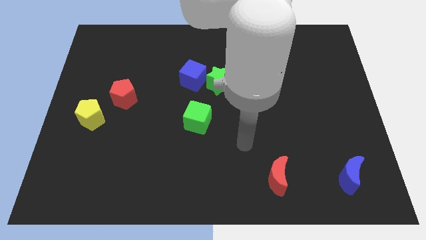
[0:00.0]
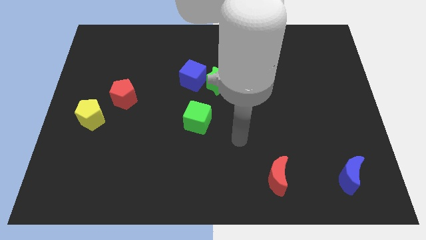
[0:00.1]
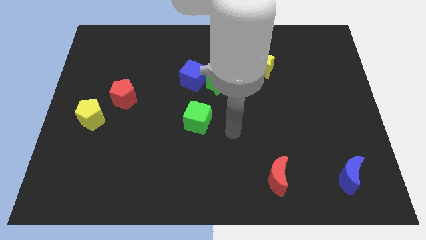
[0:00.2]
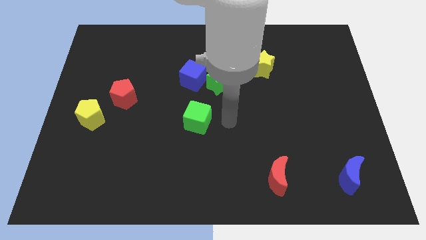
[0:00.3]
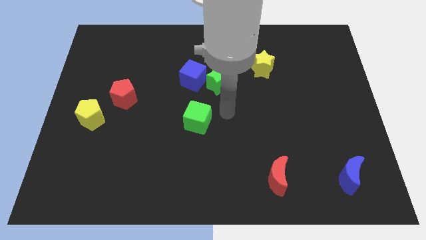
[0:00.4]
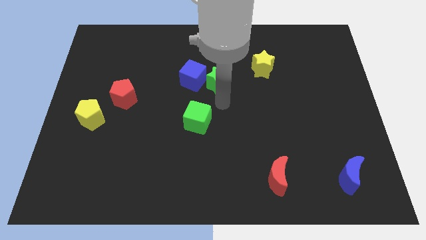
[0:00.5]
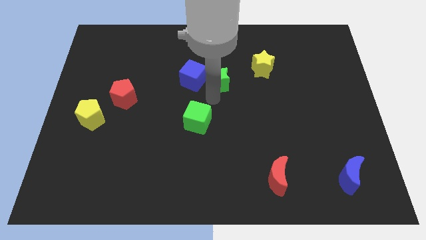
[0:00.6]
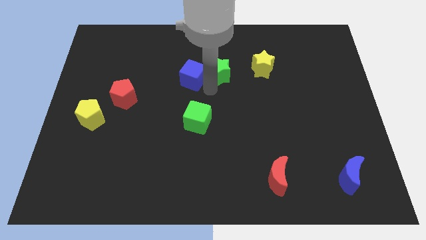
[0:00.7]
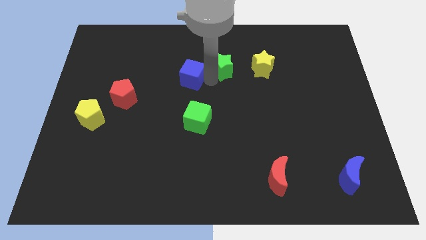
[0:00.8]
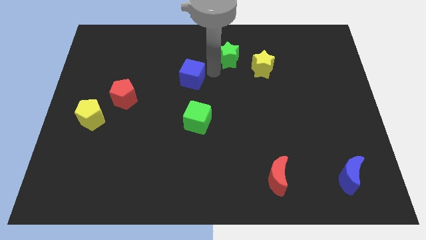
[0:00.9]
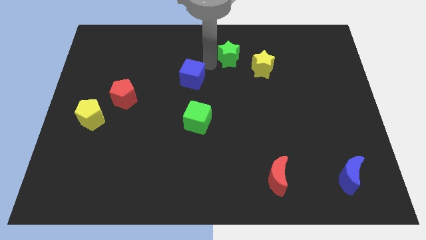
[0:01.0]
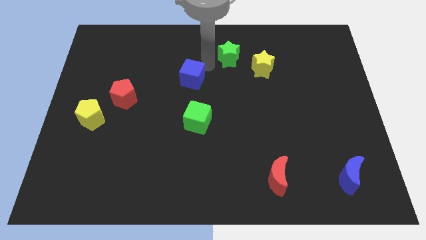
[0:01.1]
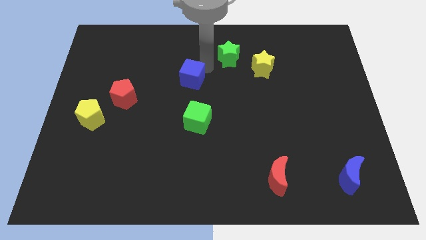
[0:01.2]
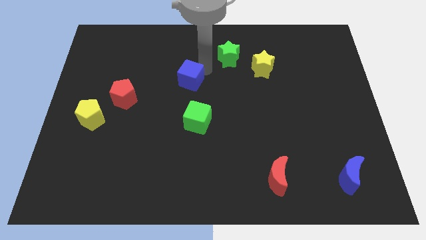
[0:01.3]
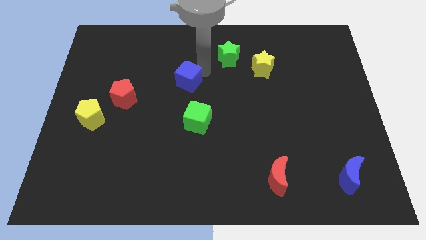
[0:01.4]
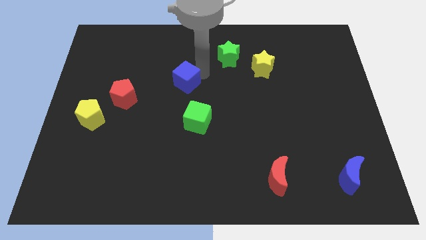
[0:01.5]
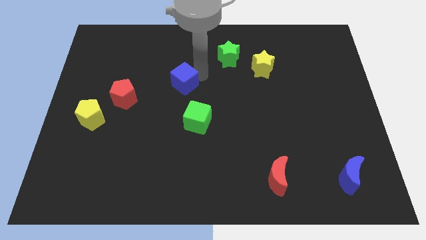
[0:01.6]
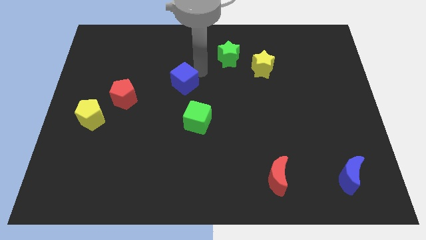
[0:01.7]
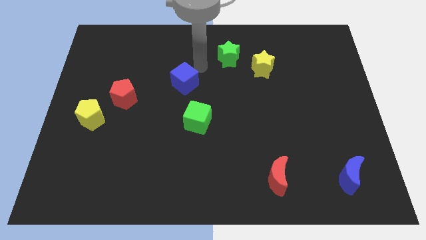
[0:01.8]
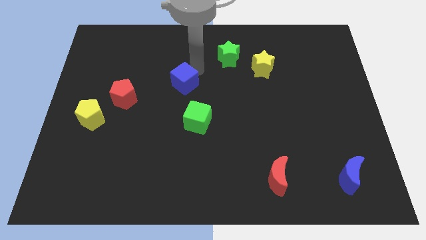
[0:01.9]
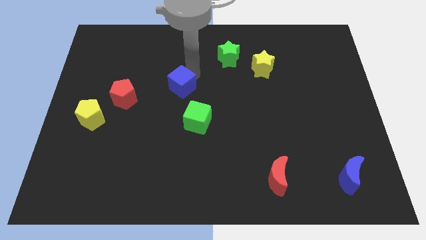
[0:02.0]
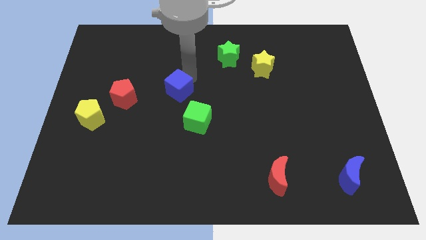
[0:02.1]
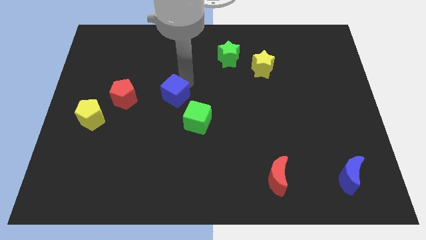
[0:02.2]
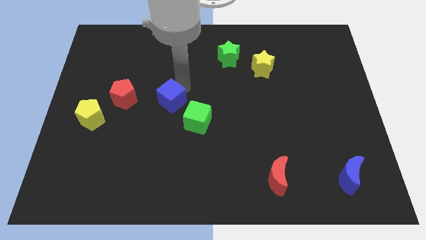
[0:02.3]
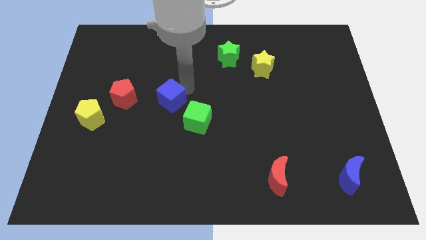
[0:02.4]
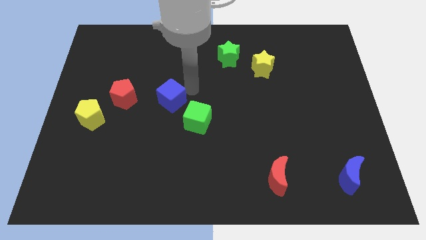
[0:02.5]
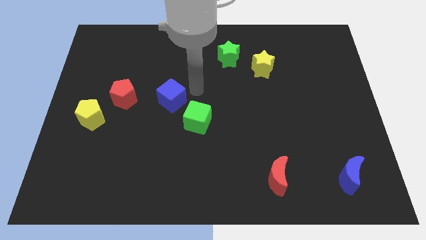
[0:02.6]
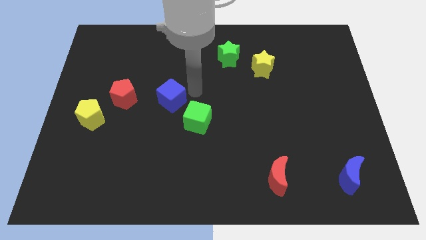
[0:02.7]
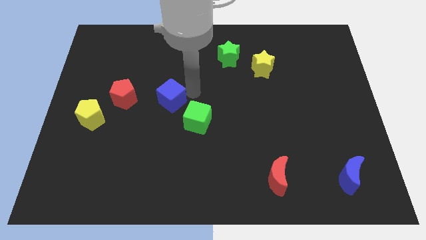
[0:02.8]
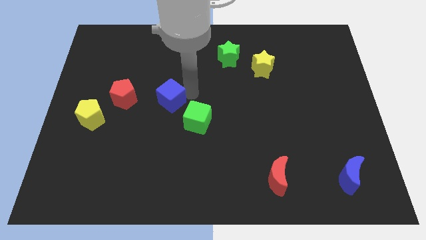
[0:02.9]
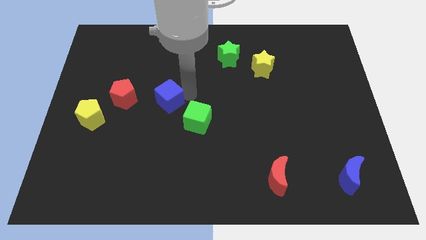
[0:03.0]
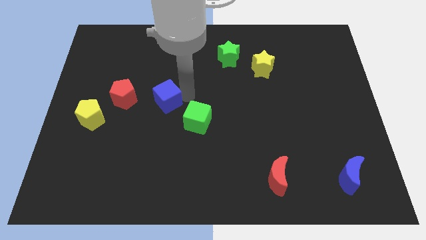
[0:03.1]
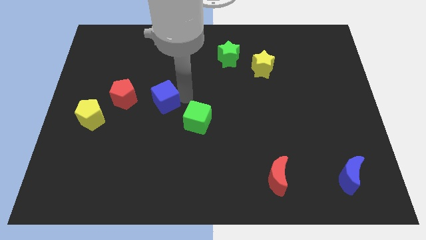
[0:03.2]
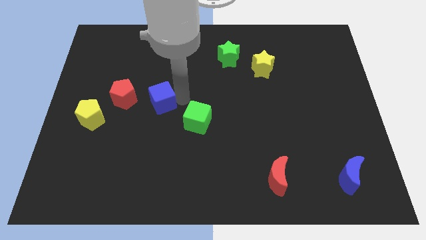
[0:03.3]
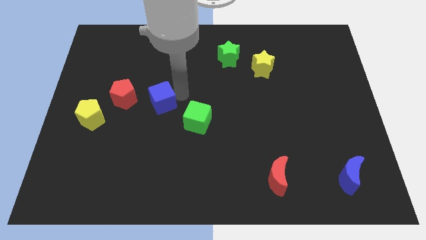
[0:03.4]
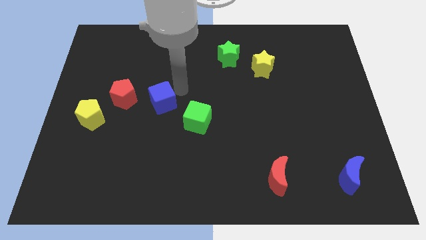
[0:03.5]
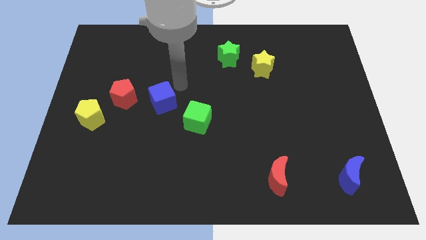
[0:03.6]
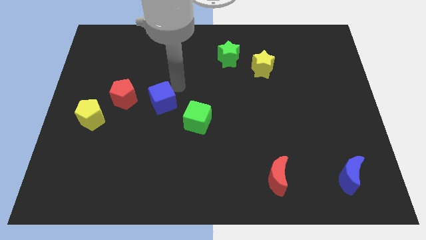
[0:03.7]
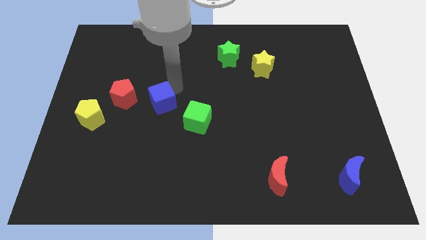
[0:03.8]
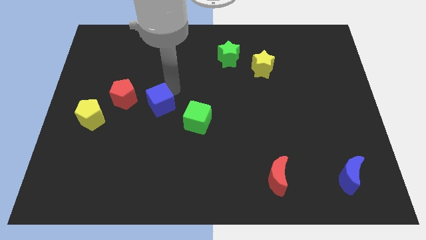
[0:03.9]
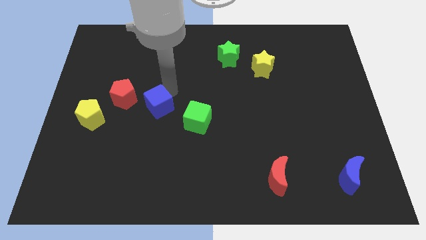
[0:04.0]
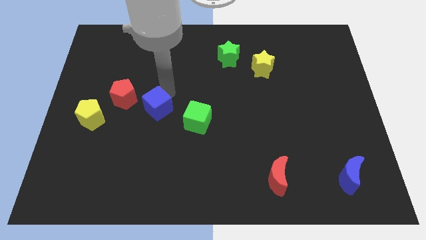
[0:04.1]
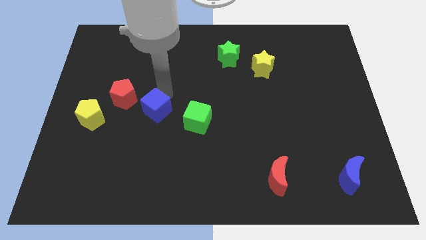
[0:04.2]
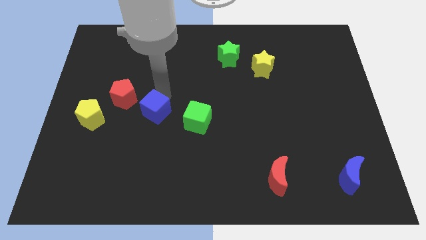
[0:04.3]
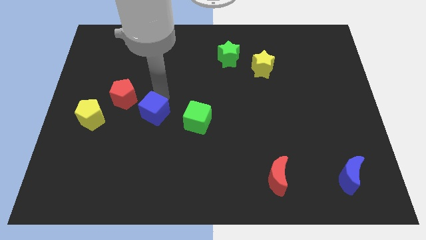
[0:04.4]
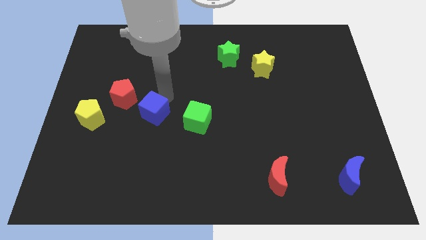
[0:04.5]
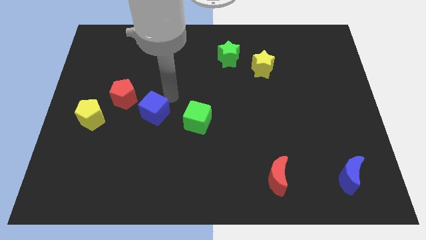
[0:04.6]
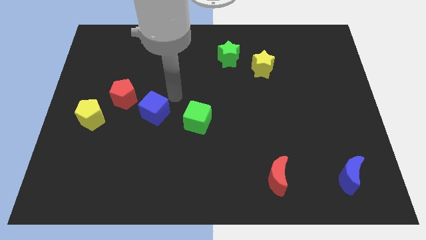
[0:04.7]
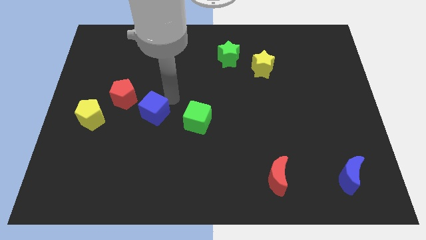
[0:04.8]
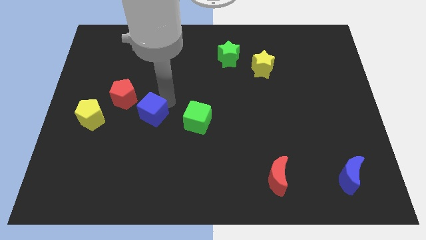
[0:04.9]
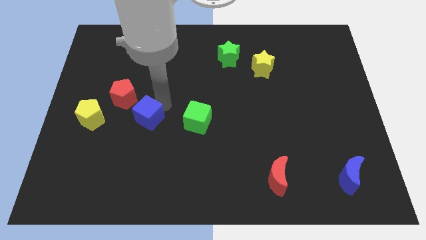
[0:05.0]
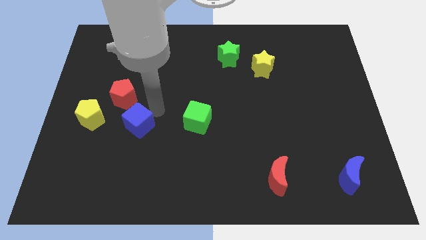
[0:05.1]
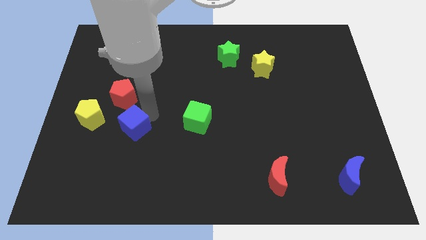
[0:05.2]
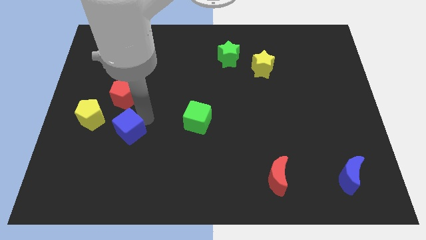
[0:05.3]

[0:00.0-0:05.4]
push the blue cube downwards and then to the left

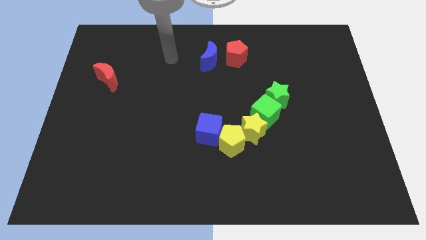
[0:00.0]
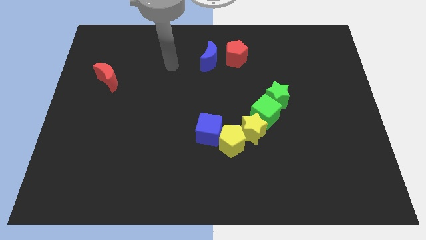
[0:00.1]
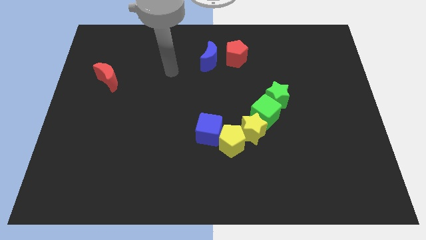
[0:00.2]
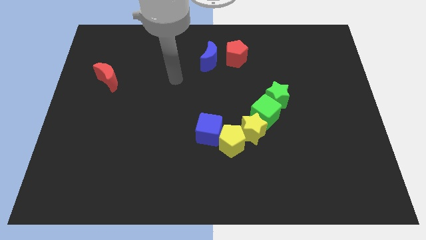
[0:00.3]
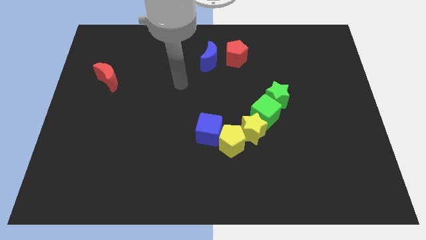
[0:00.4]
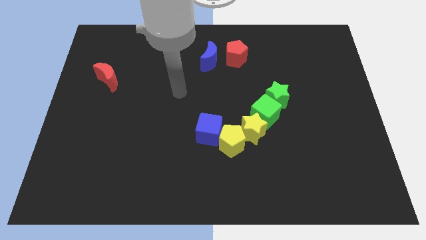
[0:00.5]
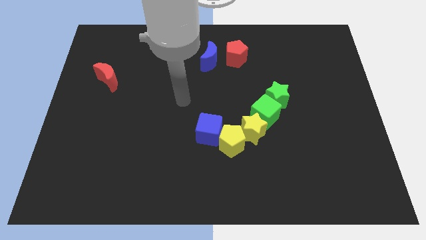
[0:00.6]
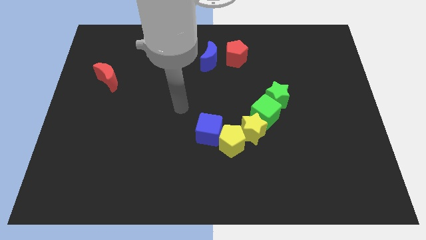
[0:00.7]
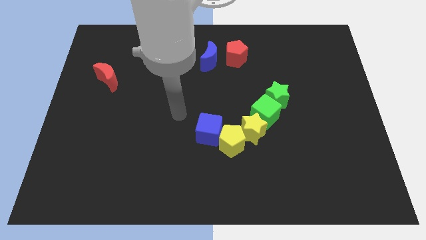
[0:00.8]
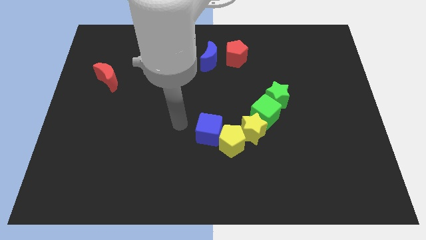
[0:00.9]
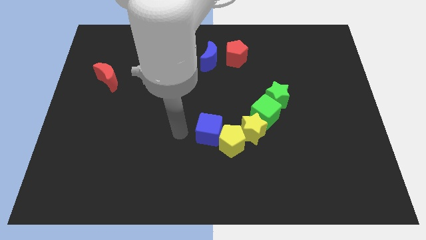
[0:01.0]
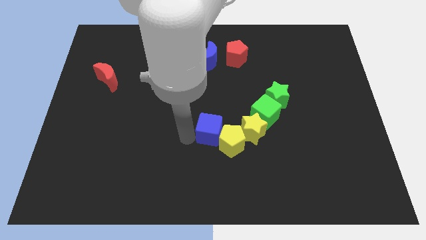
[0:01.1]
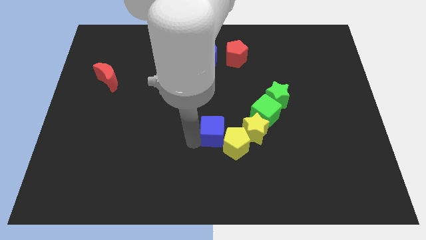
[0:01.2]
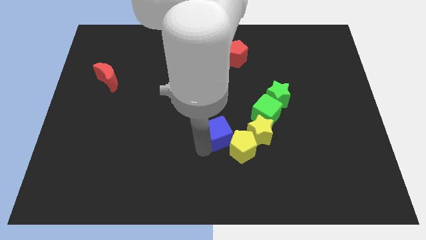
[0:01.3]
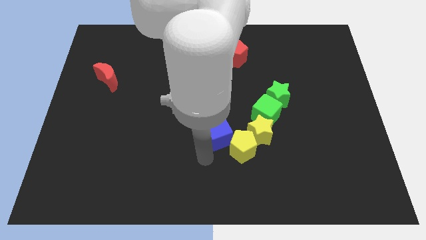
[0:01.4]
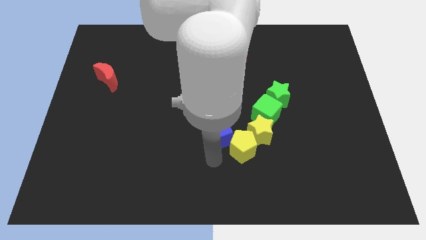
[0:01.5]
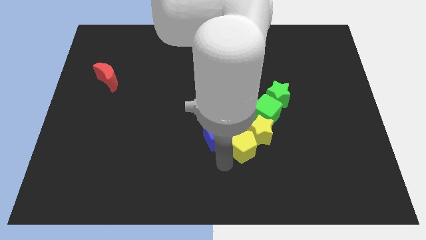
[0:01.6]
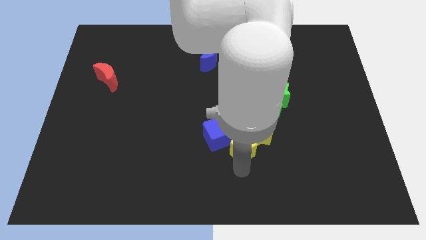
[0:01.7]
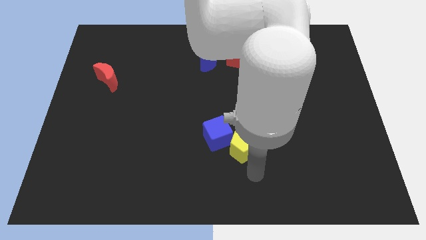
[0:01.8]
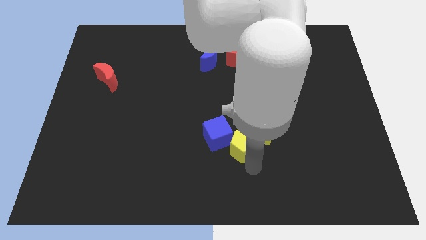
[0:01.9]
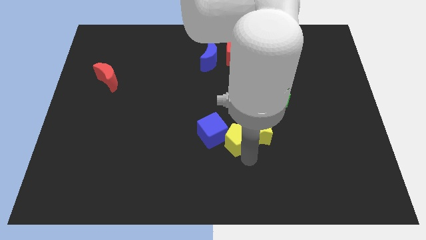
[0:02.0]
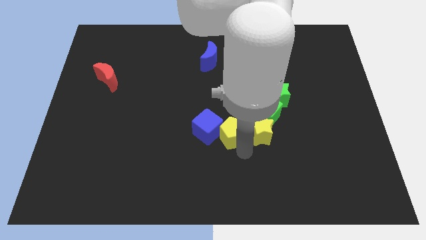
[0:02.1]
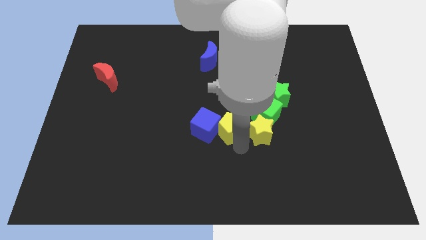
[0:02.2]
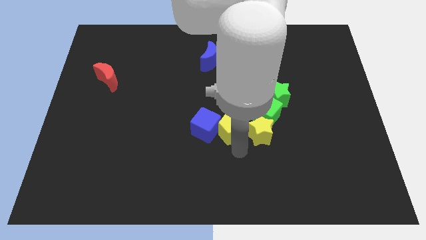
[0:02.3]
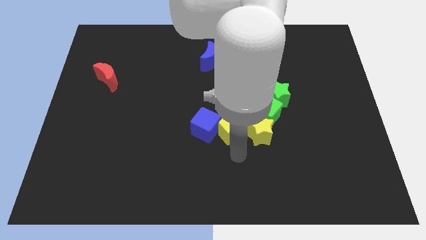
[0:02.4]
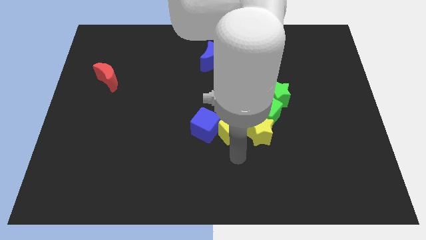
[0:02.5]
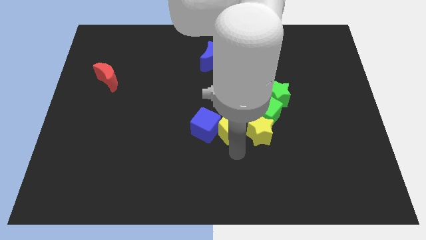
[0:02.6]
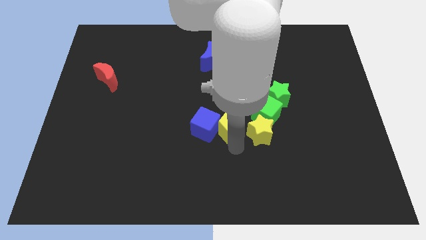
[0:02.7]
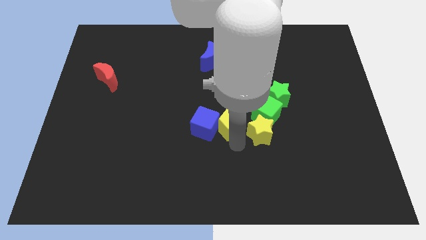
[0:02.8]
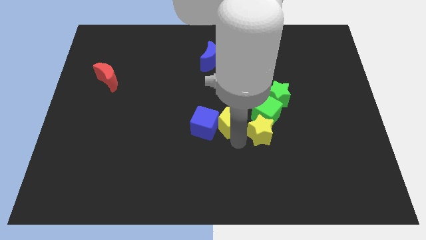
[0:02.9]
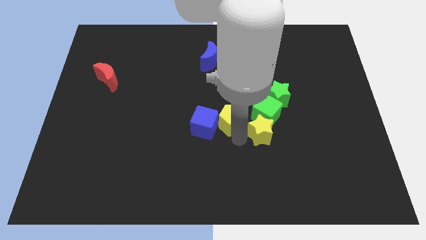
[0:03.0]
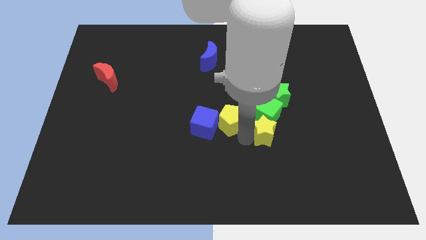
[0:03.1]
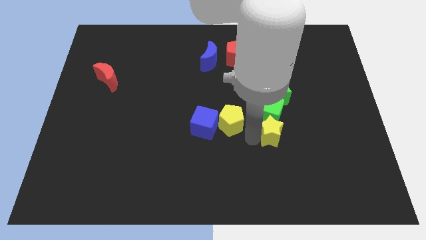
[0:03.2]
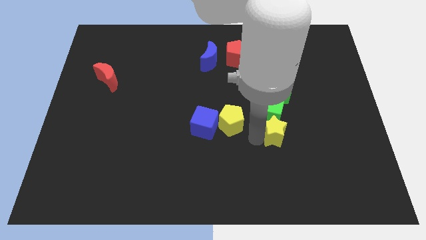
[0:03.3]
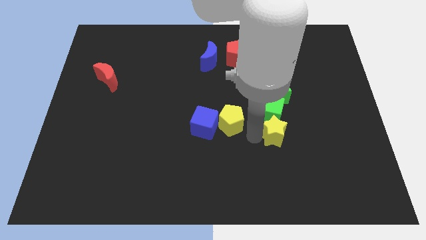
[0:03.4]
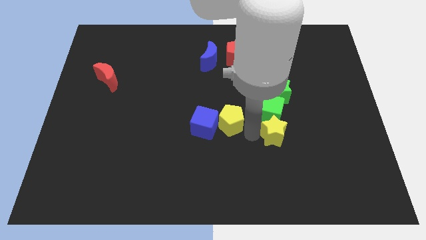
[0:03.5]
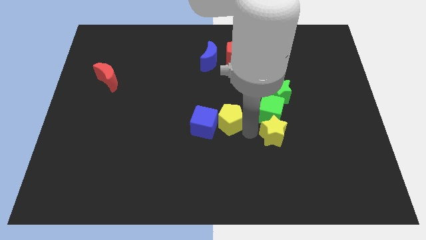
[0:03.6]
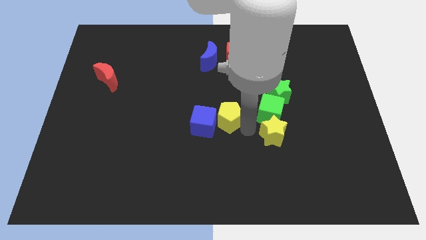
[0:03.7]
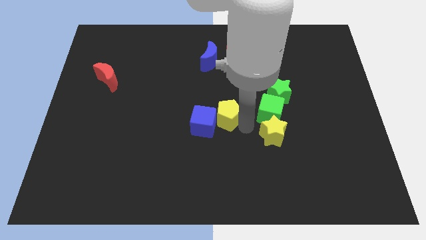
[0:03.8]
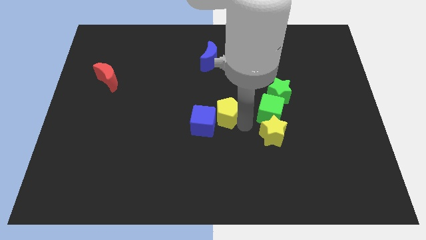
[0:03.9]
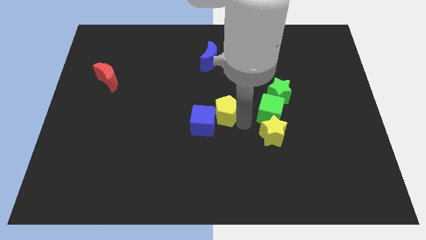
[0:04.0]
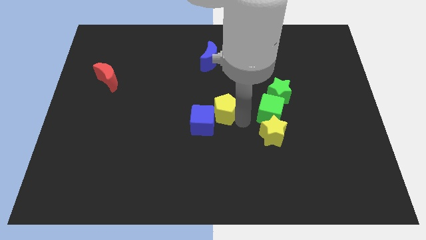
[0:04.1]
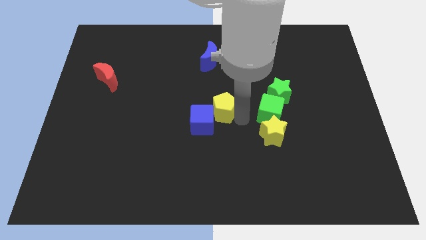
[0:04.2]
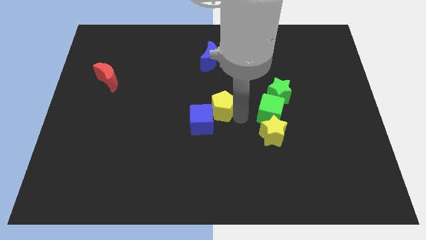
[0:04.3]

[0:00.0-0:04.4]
slide the yellow pentagon somewhat up and left diagonally
